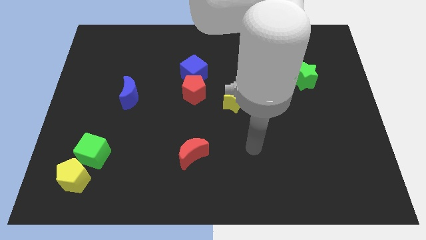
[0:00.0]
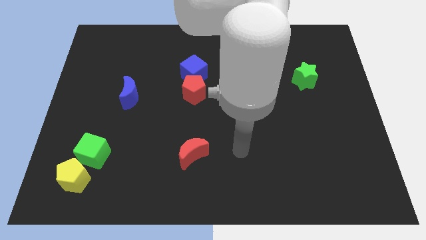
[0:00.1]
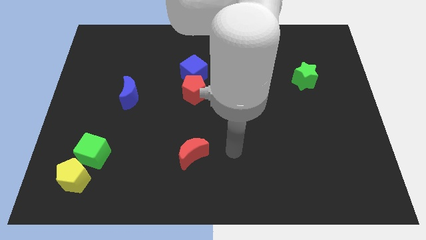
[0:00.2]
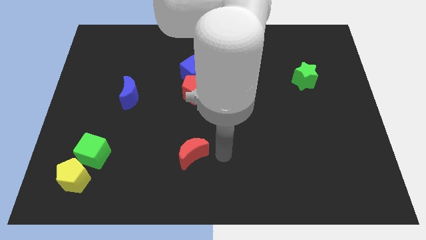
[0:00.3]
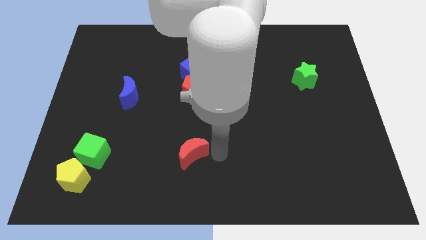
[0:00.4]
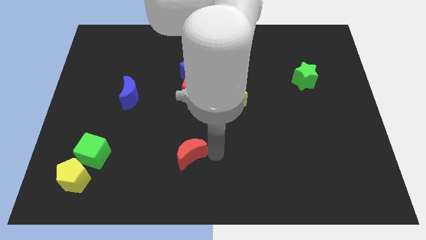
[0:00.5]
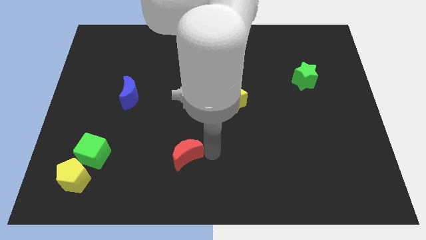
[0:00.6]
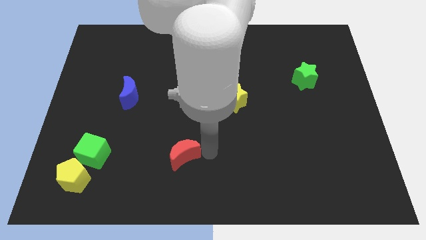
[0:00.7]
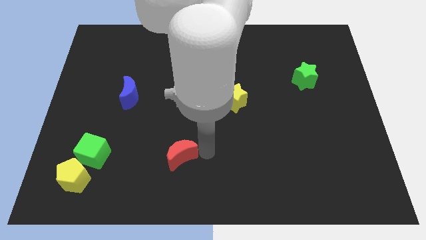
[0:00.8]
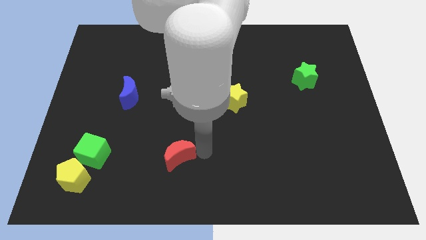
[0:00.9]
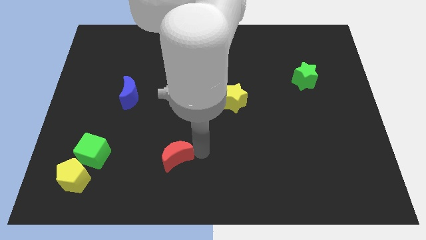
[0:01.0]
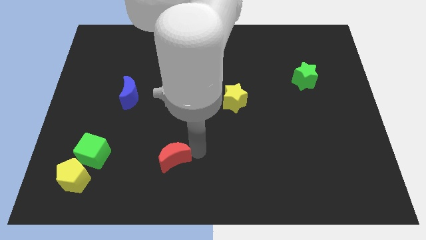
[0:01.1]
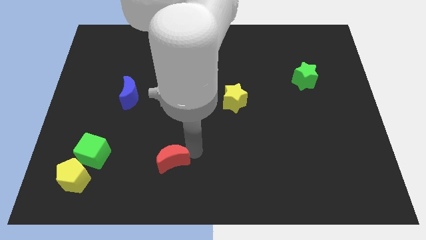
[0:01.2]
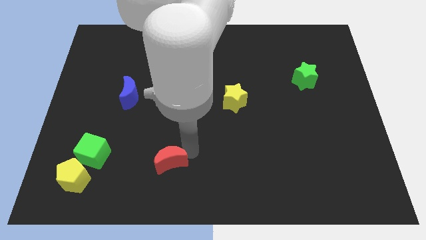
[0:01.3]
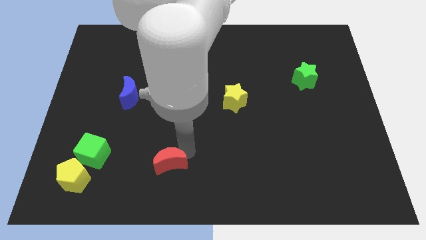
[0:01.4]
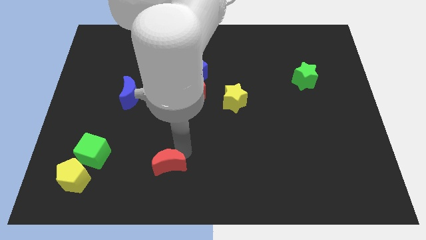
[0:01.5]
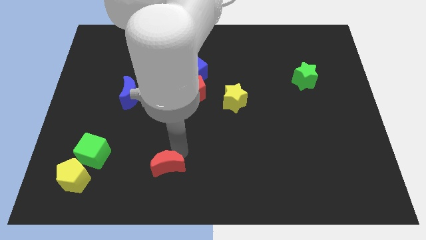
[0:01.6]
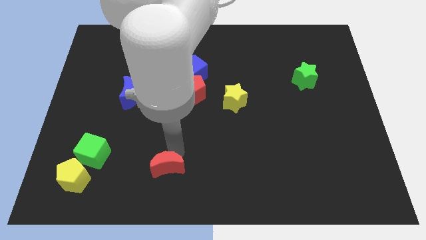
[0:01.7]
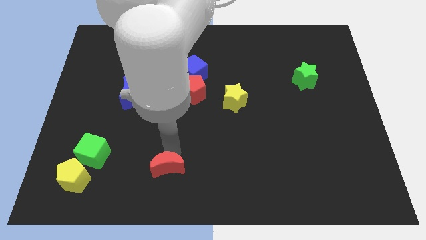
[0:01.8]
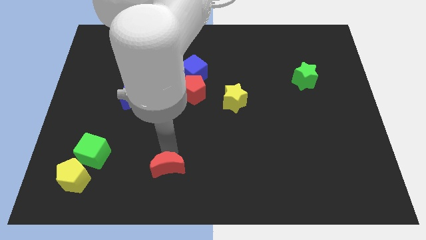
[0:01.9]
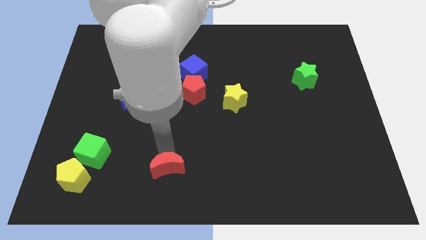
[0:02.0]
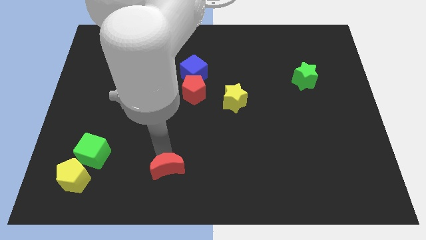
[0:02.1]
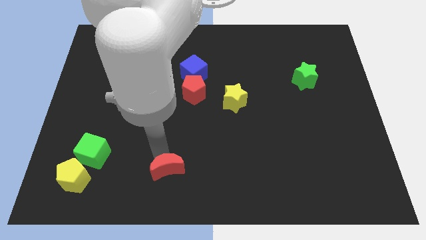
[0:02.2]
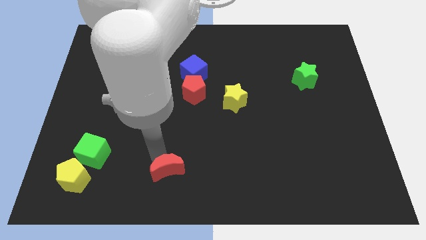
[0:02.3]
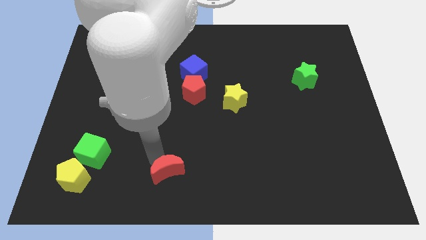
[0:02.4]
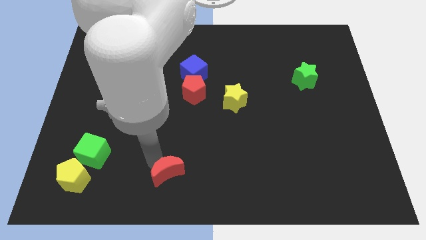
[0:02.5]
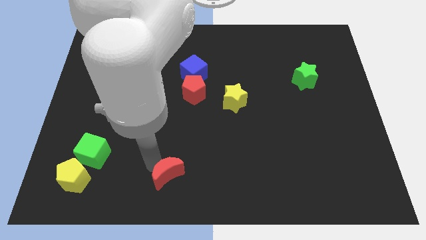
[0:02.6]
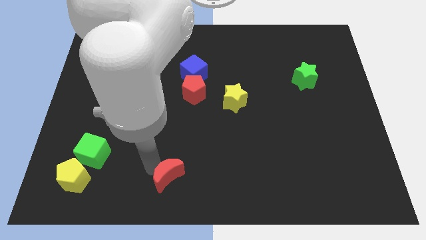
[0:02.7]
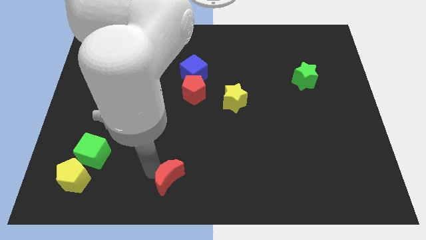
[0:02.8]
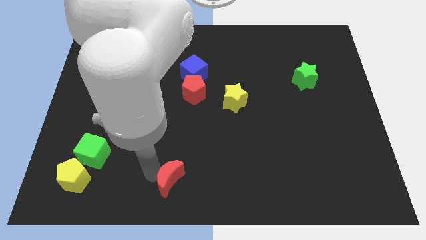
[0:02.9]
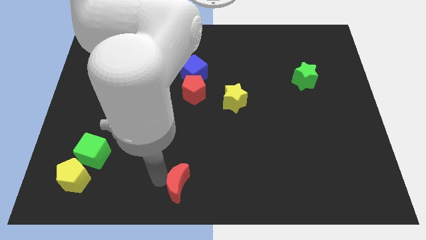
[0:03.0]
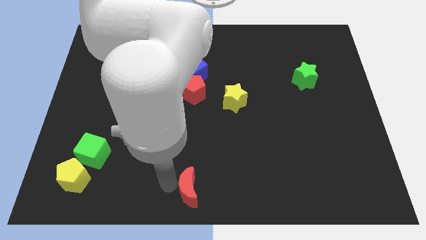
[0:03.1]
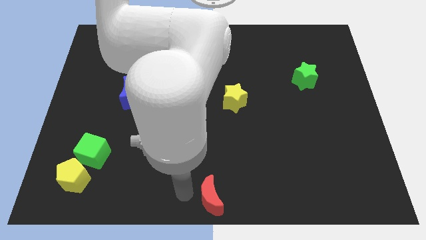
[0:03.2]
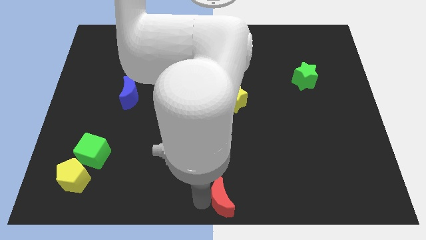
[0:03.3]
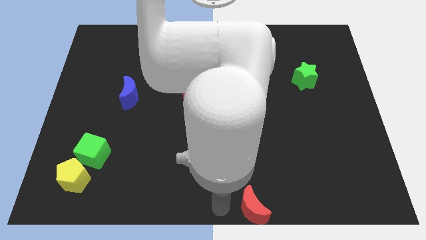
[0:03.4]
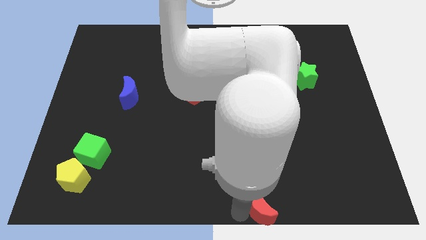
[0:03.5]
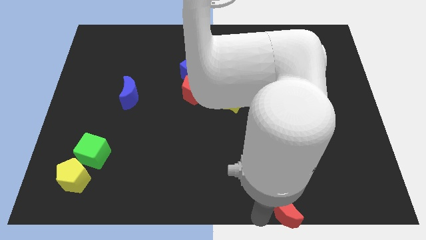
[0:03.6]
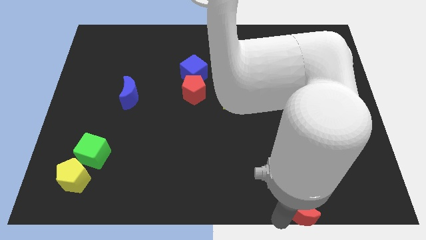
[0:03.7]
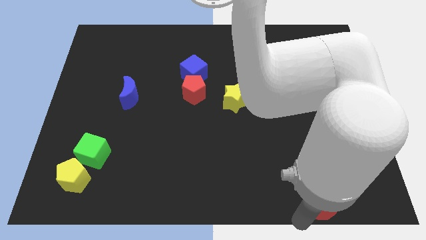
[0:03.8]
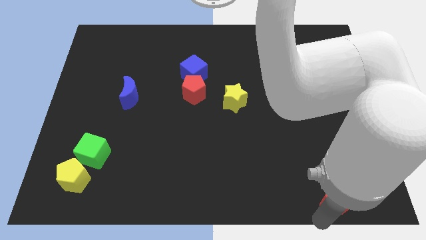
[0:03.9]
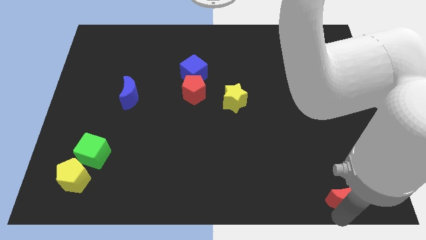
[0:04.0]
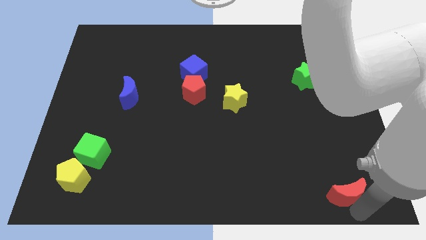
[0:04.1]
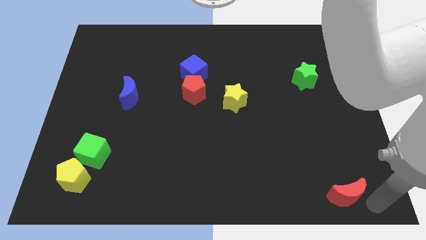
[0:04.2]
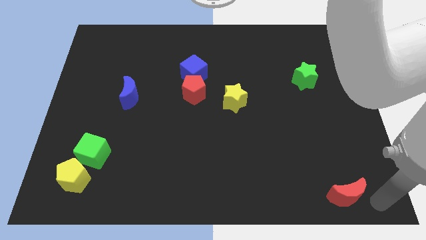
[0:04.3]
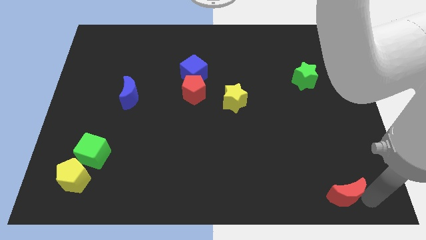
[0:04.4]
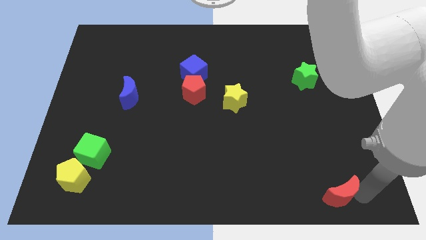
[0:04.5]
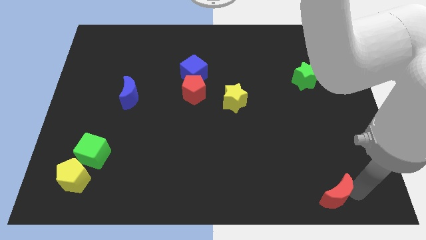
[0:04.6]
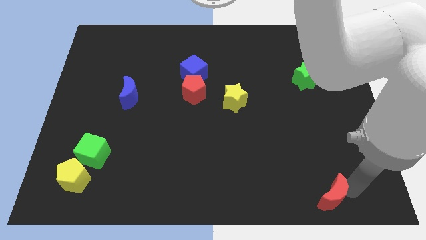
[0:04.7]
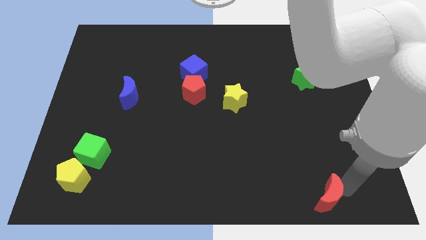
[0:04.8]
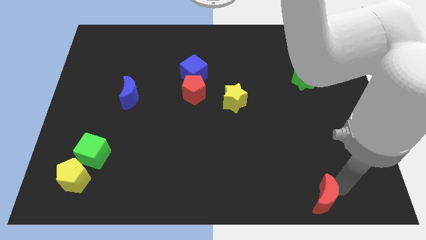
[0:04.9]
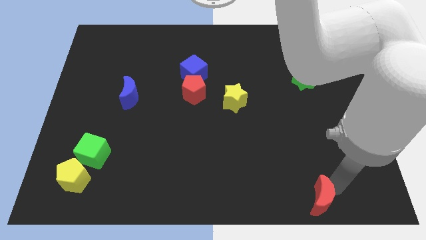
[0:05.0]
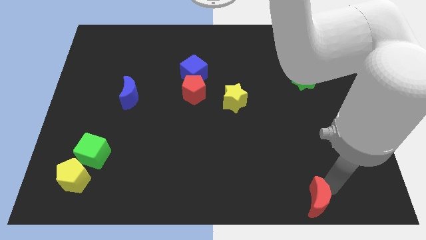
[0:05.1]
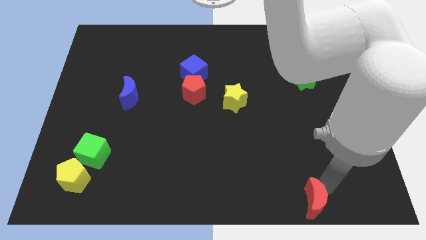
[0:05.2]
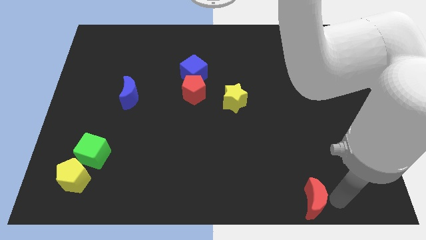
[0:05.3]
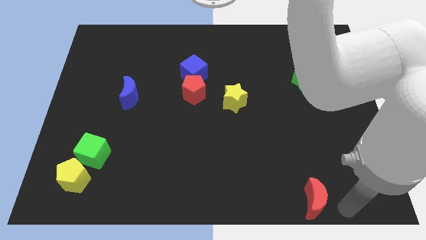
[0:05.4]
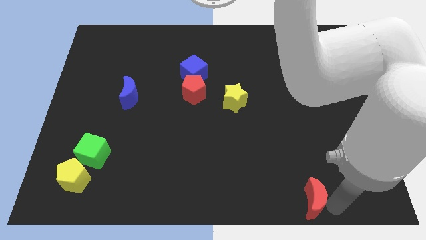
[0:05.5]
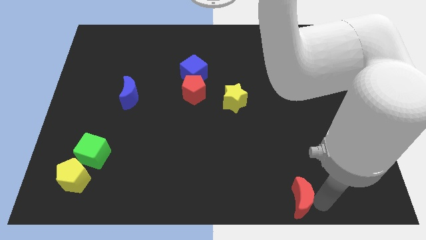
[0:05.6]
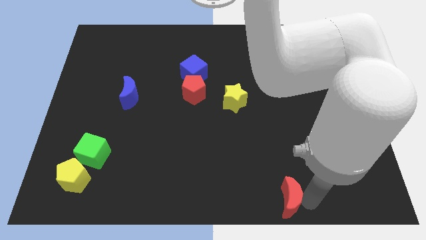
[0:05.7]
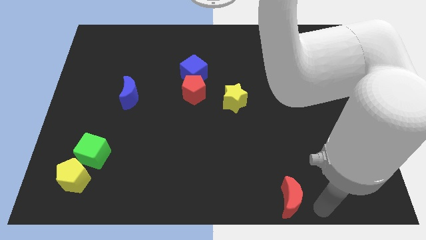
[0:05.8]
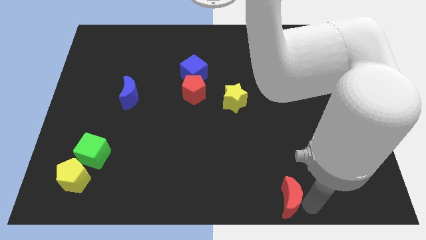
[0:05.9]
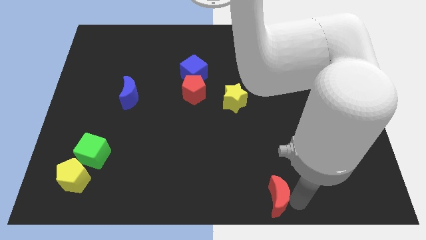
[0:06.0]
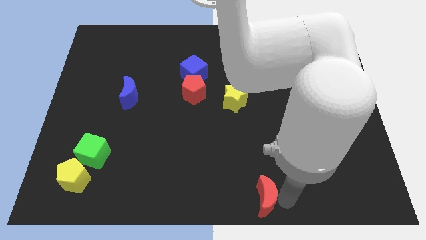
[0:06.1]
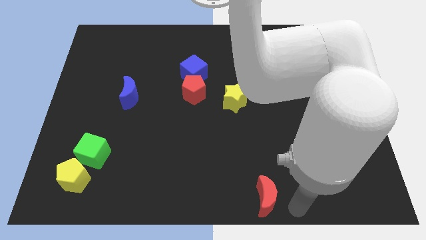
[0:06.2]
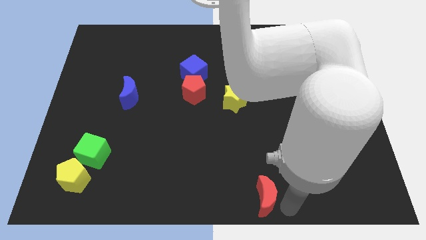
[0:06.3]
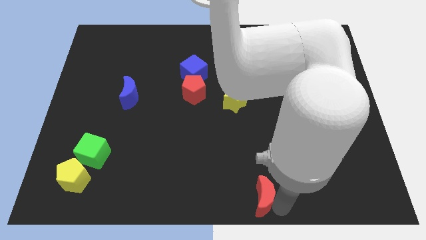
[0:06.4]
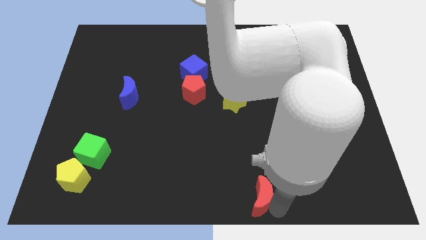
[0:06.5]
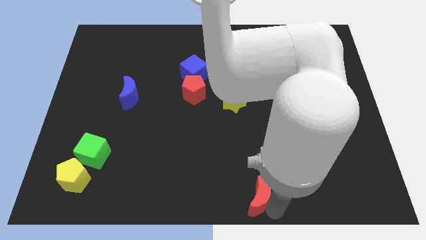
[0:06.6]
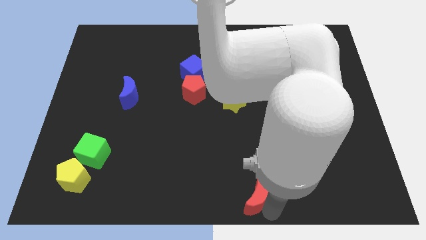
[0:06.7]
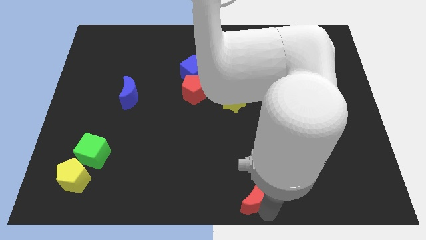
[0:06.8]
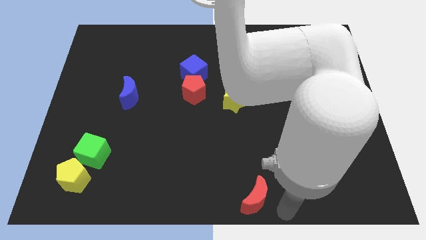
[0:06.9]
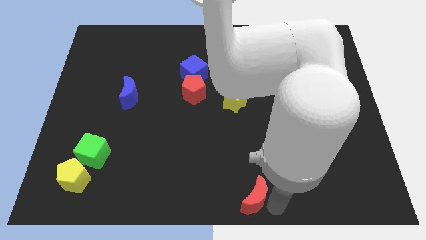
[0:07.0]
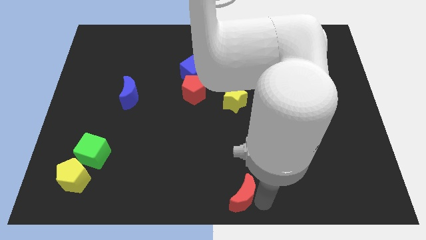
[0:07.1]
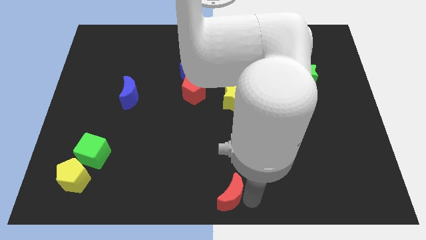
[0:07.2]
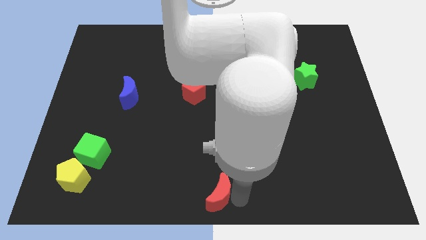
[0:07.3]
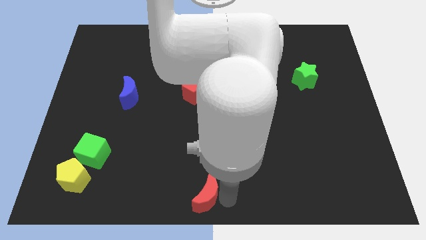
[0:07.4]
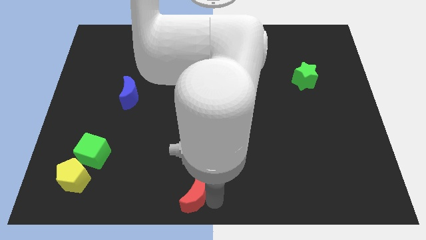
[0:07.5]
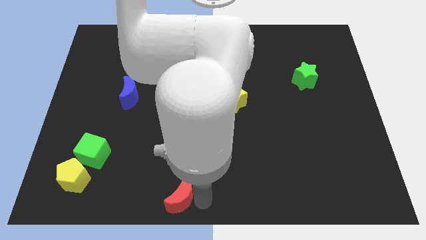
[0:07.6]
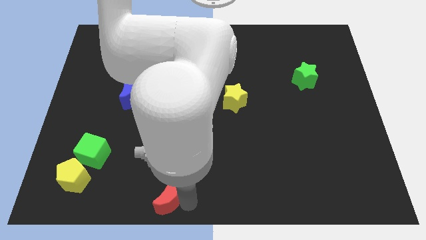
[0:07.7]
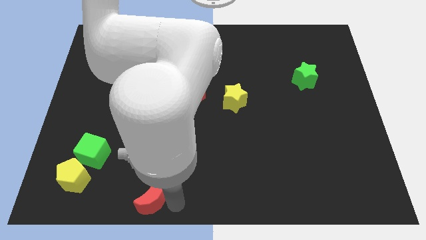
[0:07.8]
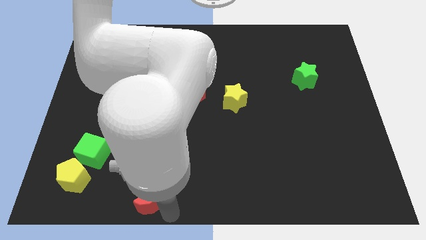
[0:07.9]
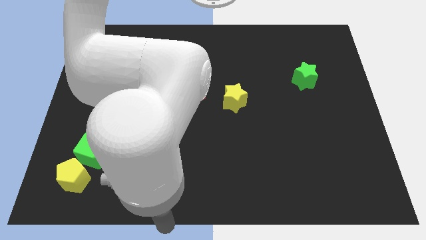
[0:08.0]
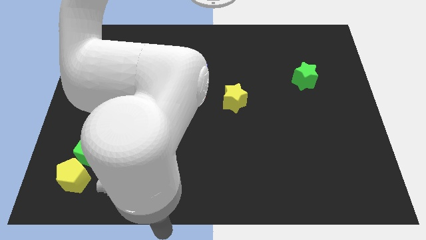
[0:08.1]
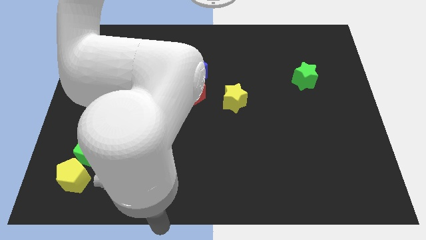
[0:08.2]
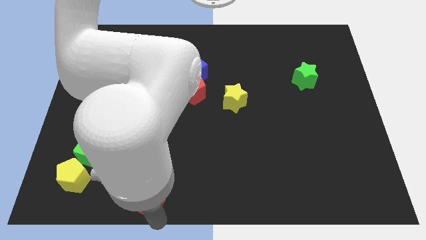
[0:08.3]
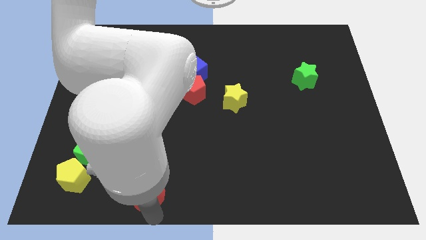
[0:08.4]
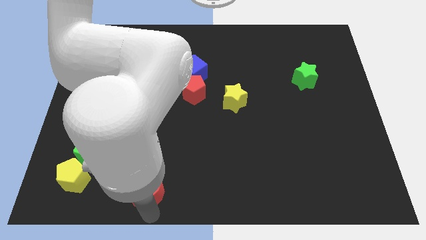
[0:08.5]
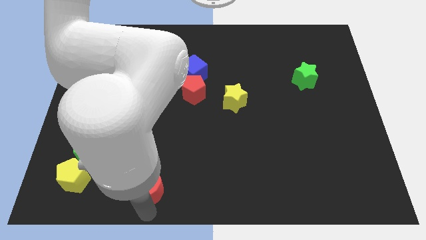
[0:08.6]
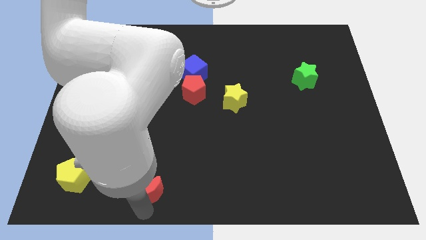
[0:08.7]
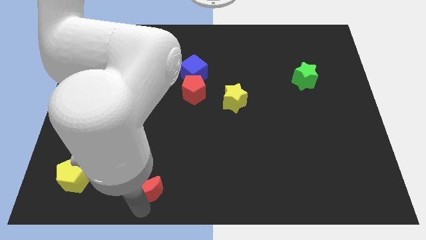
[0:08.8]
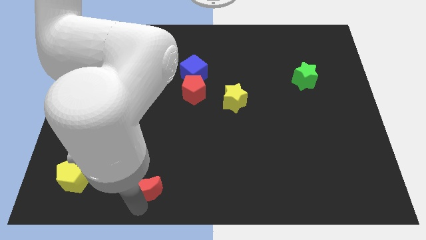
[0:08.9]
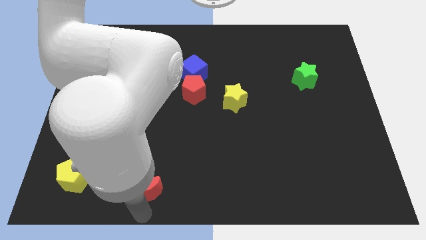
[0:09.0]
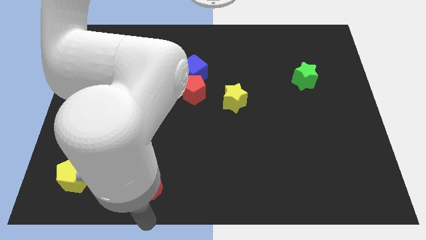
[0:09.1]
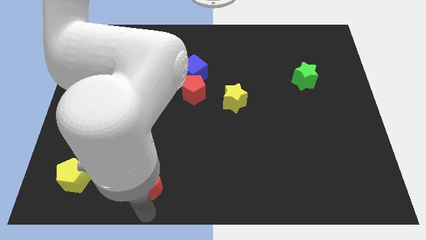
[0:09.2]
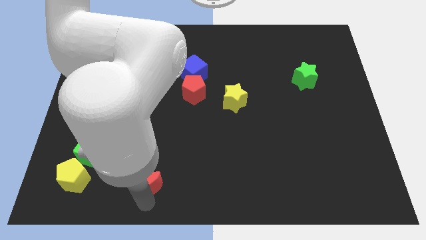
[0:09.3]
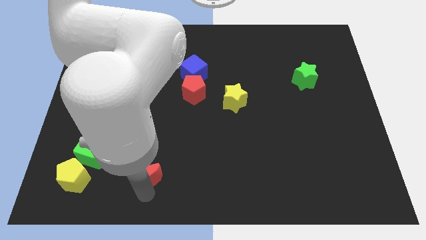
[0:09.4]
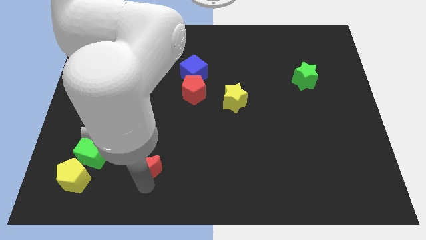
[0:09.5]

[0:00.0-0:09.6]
move the red moon just right of the green cube
